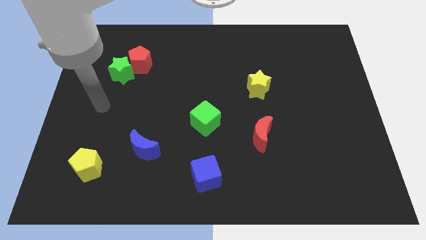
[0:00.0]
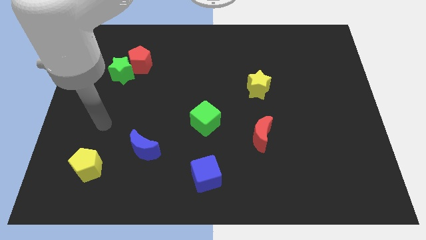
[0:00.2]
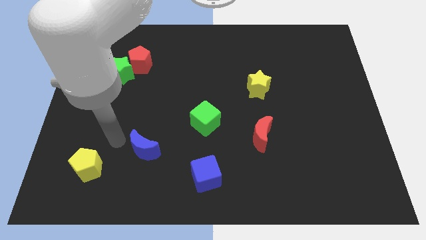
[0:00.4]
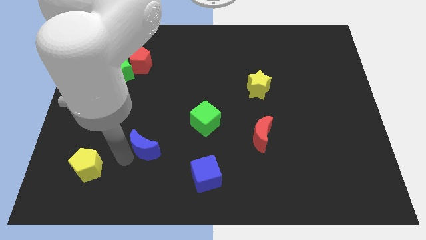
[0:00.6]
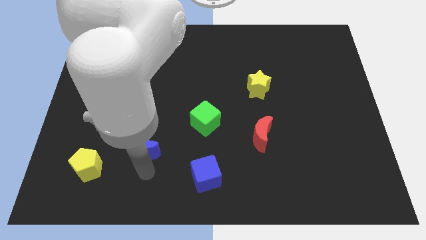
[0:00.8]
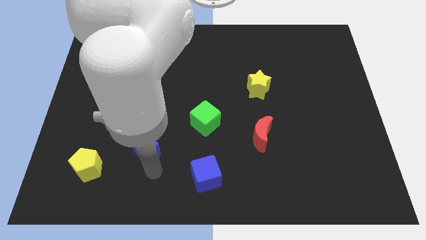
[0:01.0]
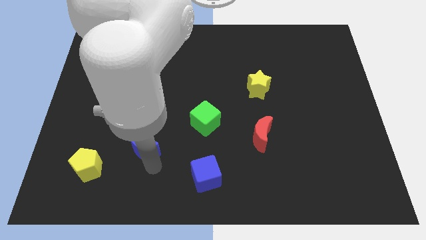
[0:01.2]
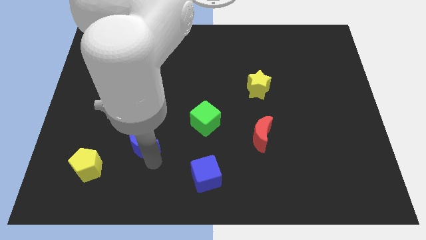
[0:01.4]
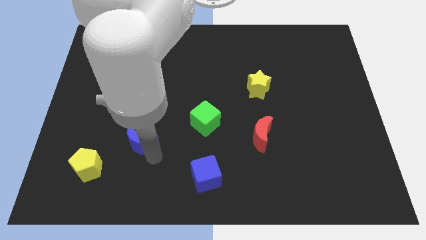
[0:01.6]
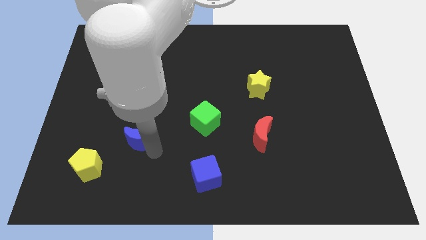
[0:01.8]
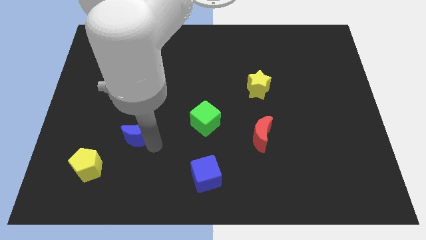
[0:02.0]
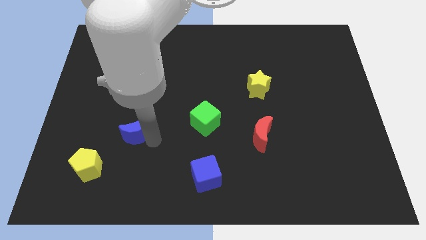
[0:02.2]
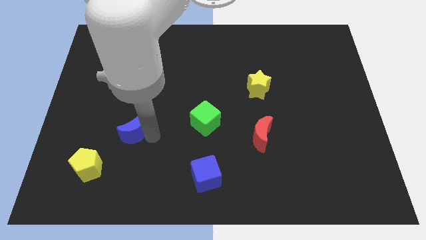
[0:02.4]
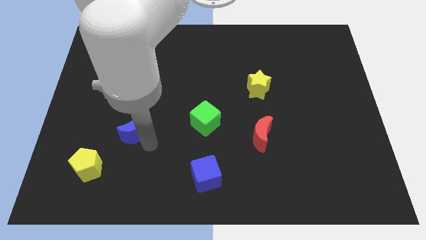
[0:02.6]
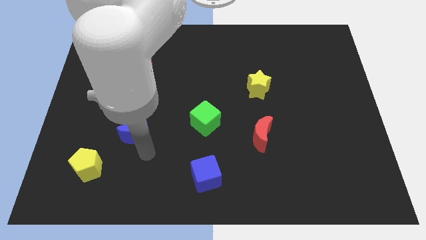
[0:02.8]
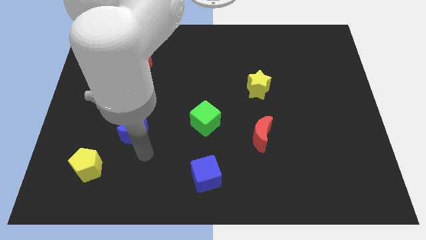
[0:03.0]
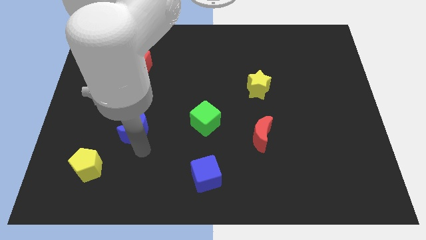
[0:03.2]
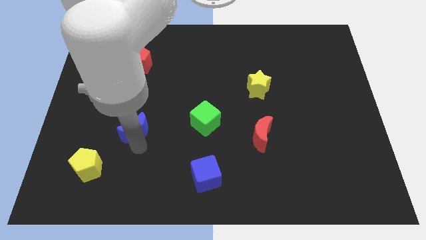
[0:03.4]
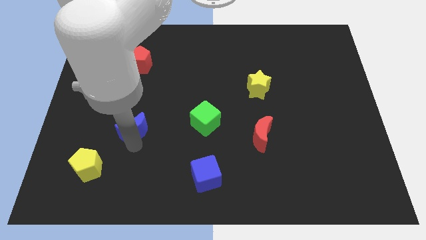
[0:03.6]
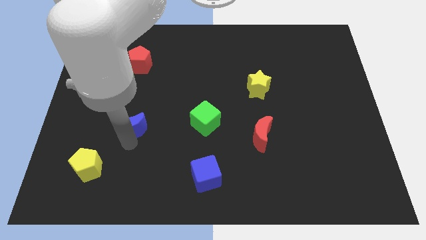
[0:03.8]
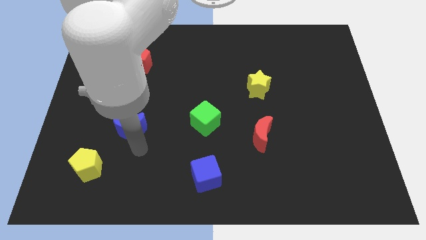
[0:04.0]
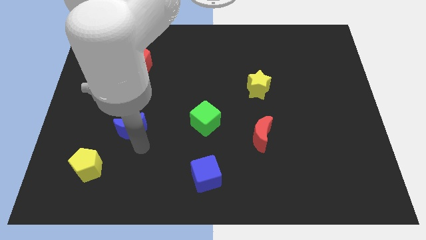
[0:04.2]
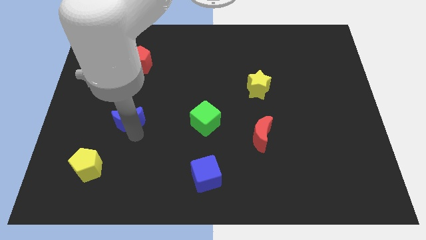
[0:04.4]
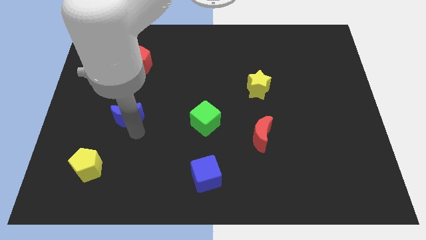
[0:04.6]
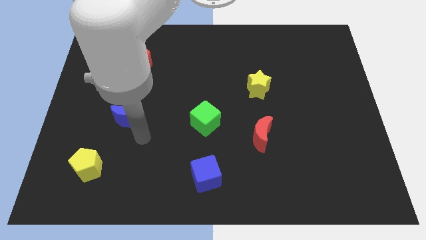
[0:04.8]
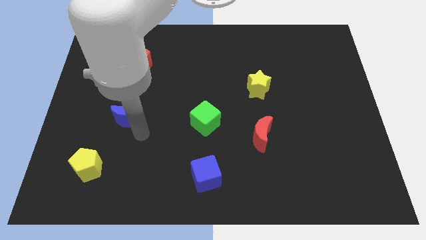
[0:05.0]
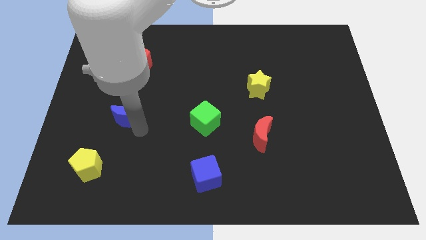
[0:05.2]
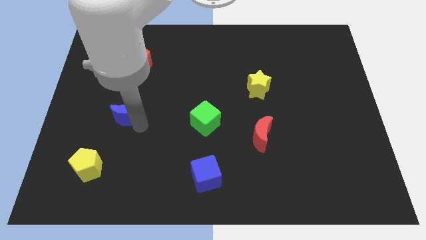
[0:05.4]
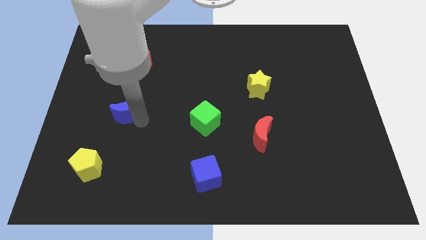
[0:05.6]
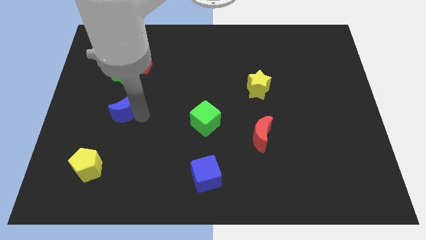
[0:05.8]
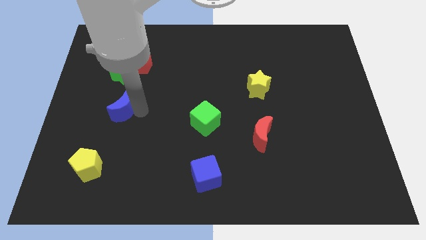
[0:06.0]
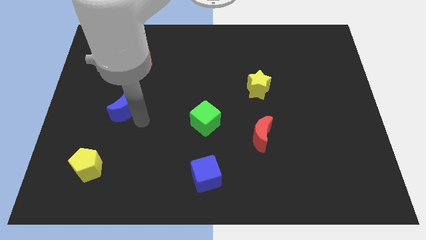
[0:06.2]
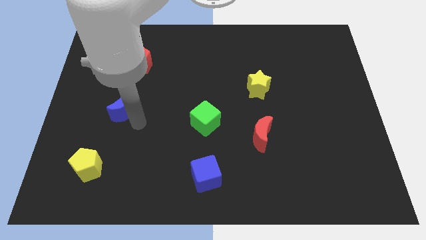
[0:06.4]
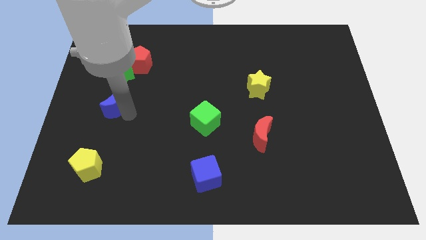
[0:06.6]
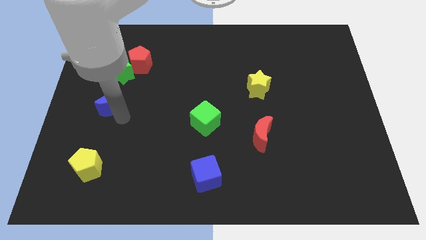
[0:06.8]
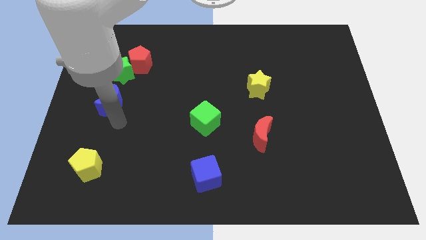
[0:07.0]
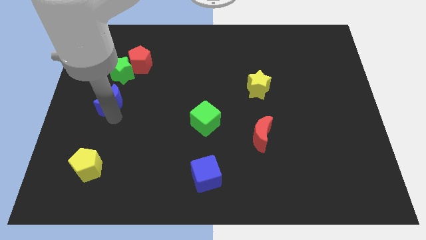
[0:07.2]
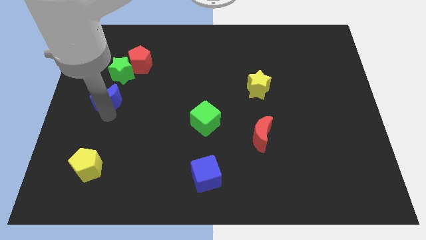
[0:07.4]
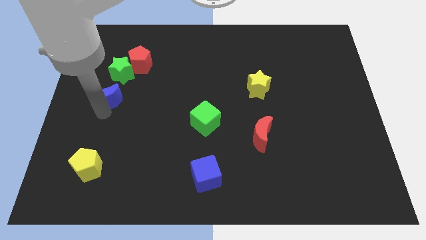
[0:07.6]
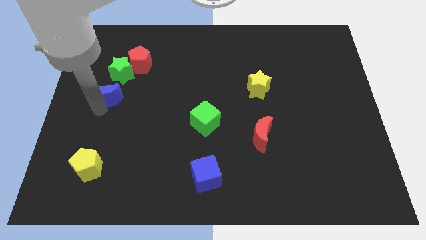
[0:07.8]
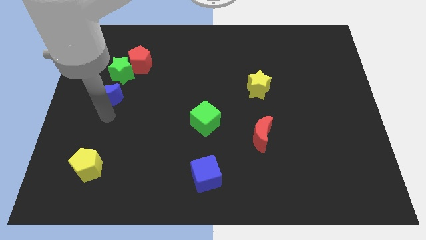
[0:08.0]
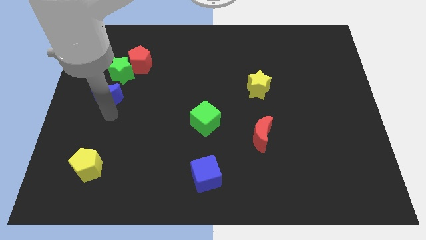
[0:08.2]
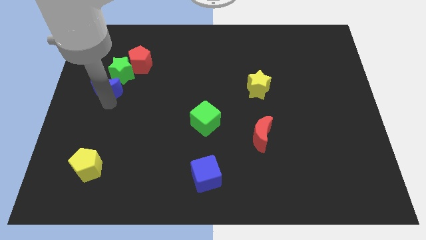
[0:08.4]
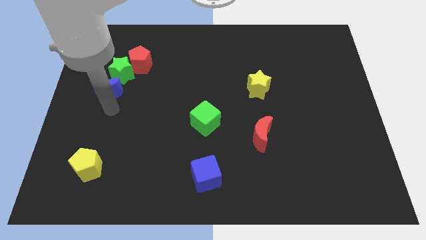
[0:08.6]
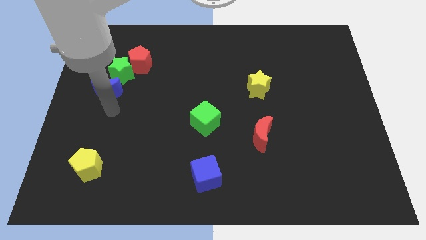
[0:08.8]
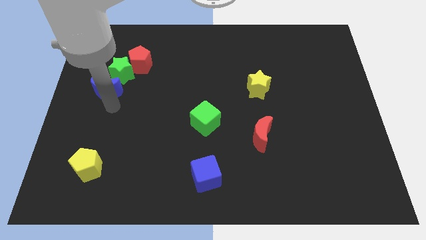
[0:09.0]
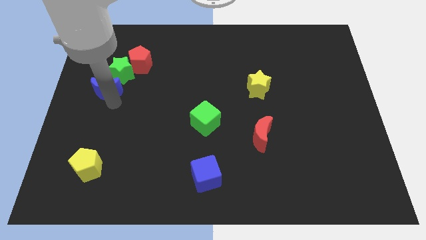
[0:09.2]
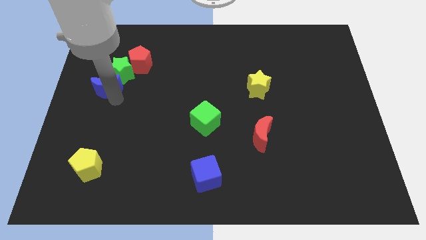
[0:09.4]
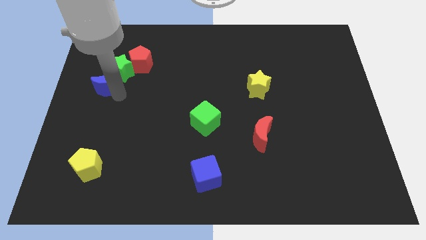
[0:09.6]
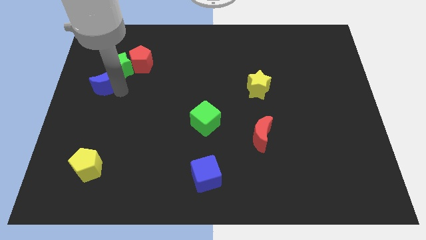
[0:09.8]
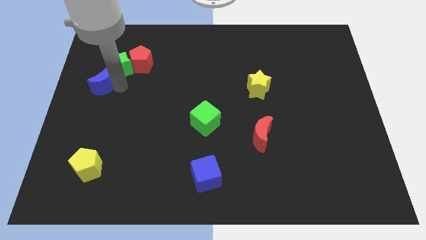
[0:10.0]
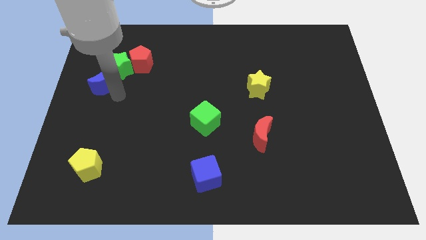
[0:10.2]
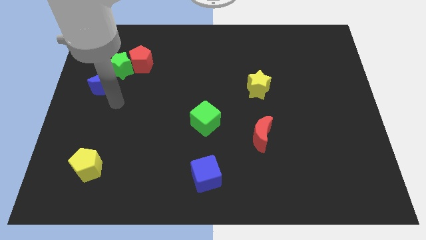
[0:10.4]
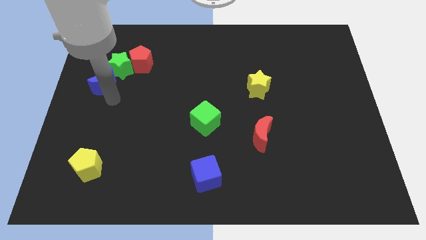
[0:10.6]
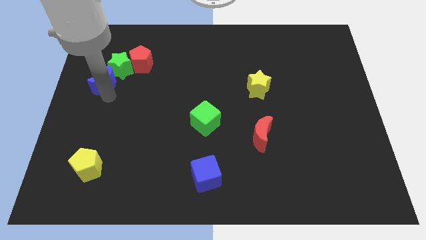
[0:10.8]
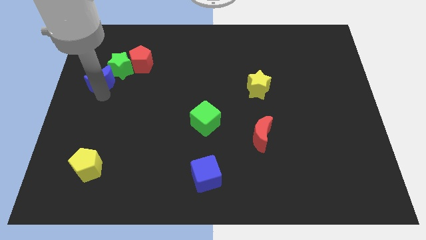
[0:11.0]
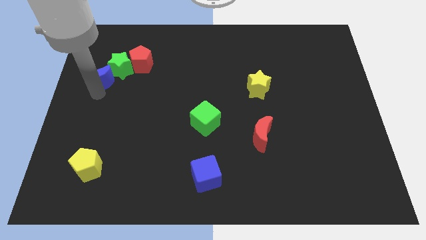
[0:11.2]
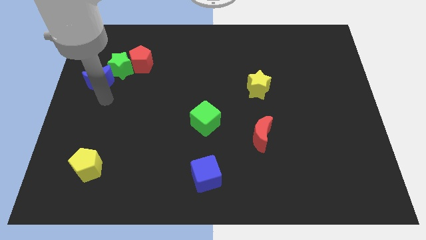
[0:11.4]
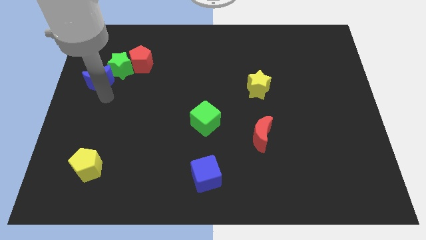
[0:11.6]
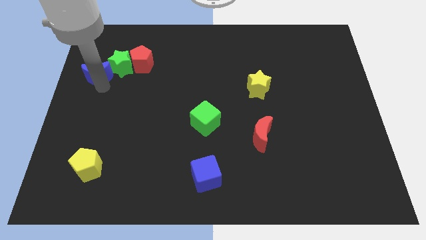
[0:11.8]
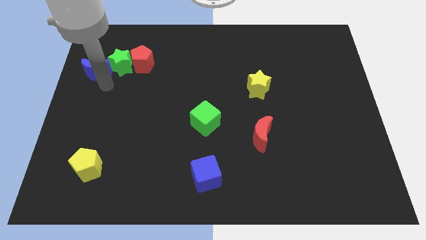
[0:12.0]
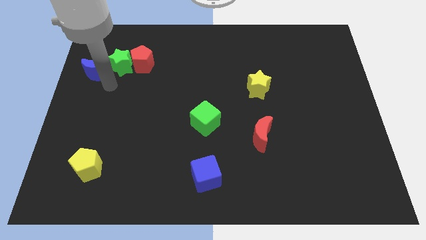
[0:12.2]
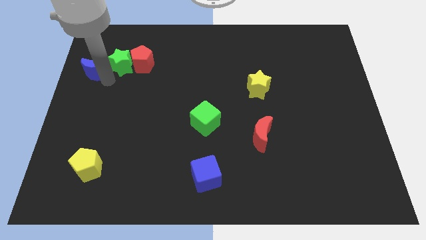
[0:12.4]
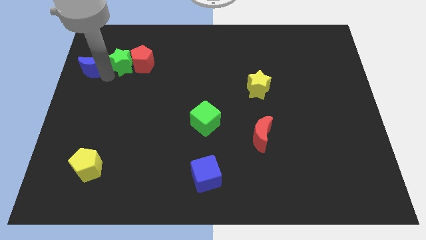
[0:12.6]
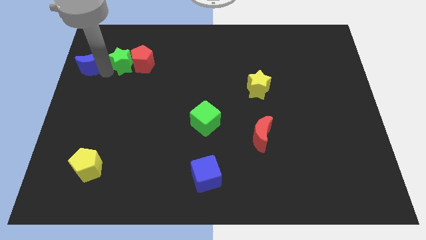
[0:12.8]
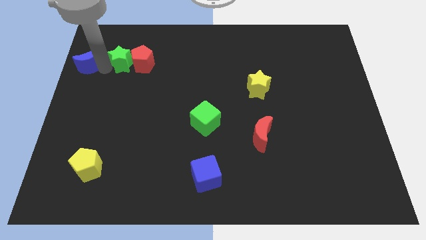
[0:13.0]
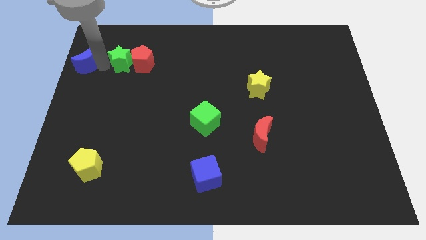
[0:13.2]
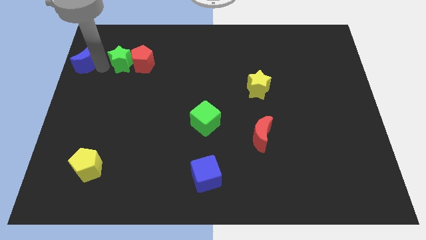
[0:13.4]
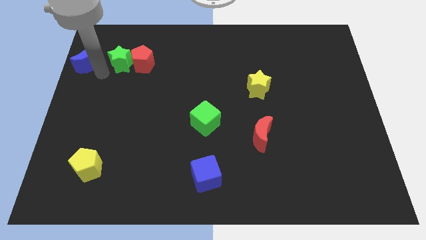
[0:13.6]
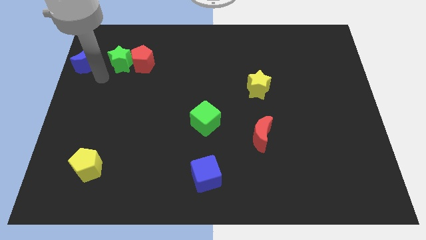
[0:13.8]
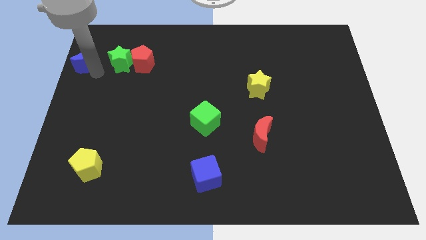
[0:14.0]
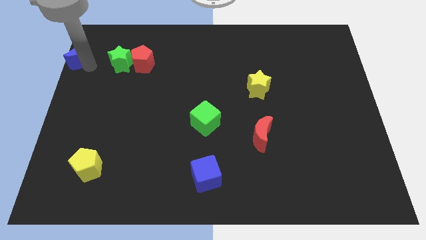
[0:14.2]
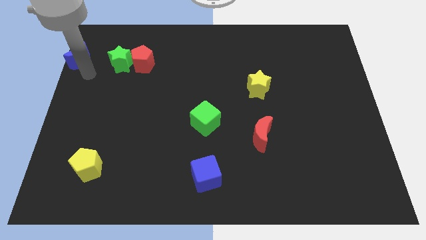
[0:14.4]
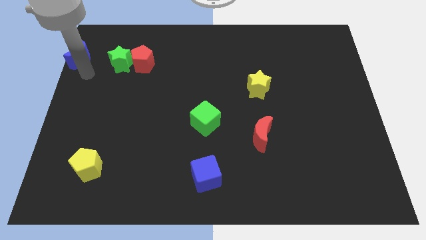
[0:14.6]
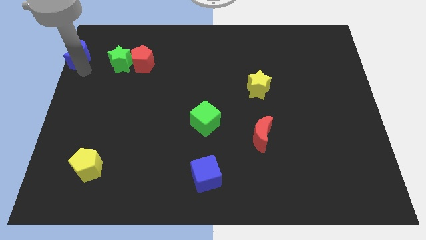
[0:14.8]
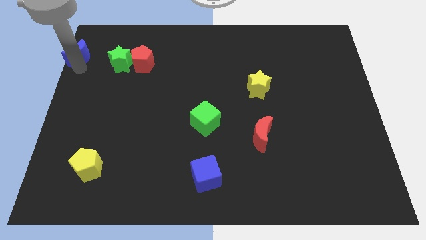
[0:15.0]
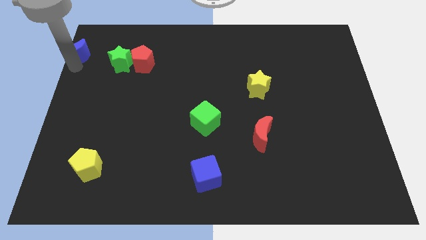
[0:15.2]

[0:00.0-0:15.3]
push the blue moon to the top left corner
